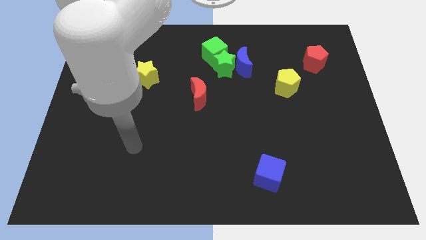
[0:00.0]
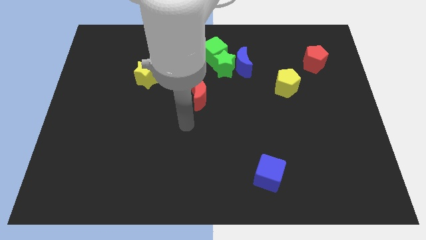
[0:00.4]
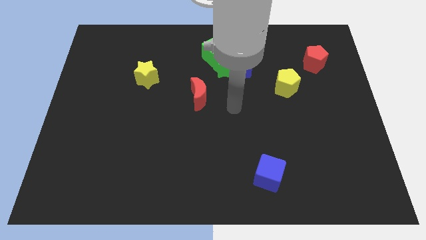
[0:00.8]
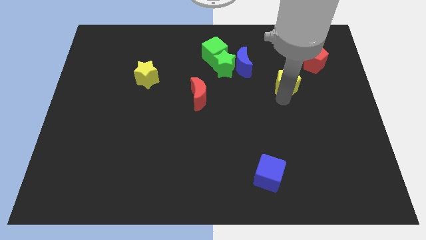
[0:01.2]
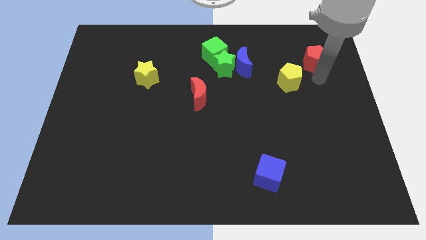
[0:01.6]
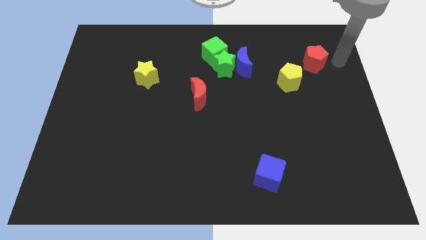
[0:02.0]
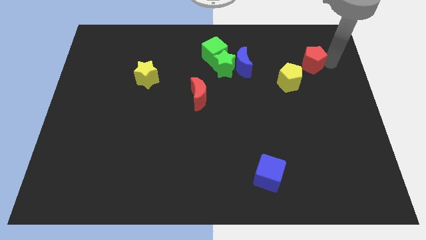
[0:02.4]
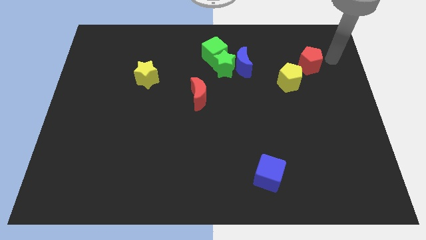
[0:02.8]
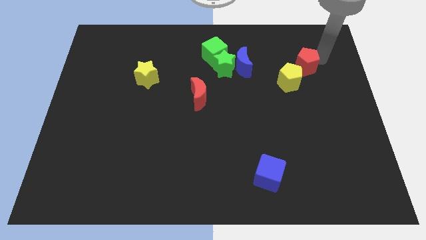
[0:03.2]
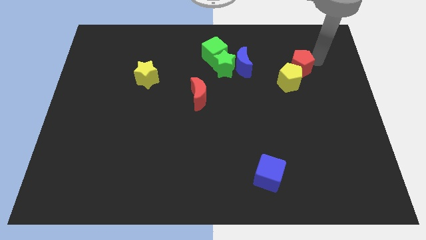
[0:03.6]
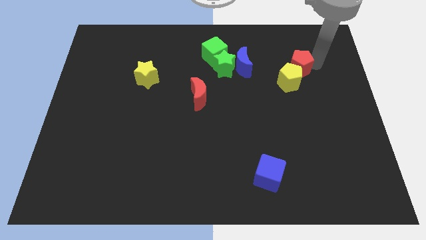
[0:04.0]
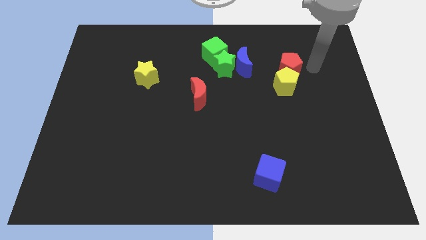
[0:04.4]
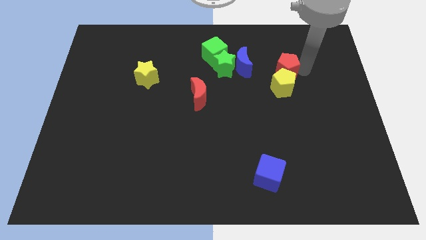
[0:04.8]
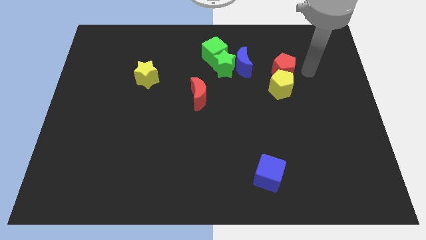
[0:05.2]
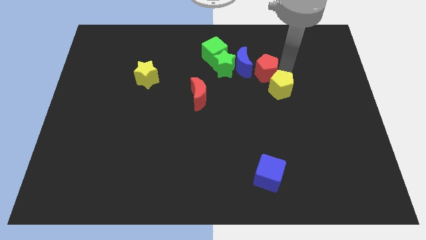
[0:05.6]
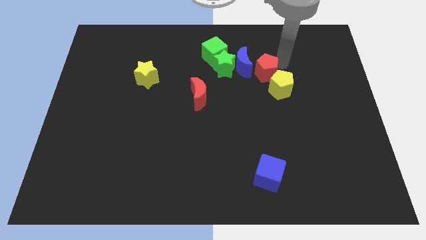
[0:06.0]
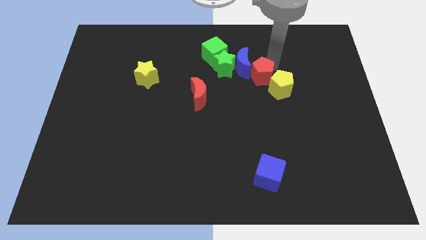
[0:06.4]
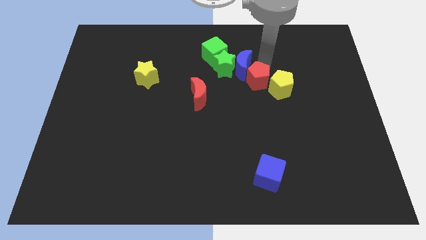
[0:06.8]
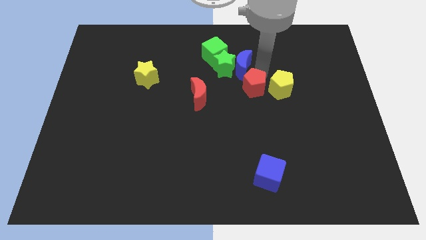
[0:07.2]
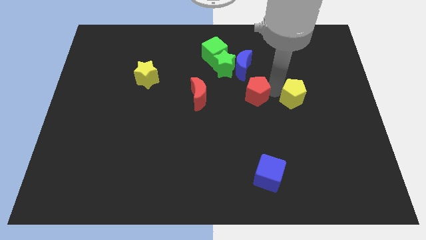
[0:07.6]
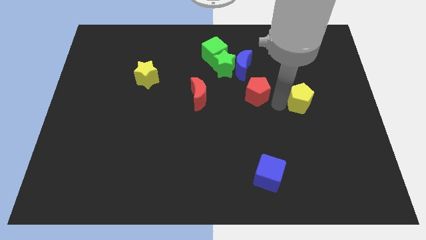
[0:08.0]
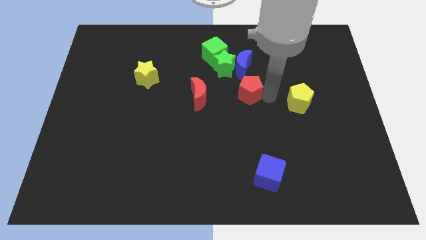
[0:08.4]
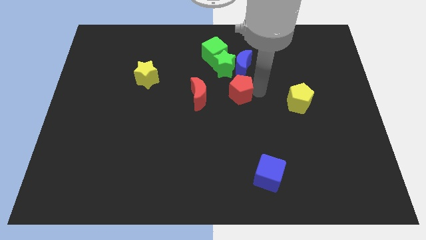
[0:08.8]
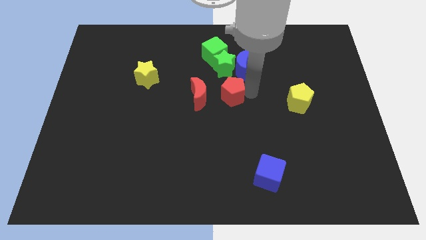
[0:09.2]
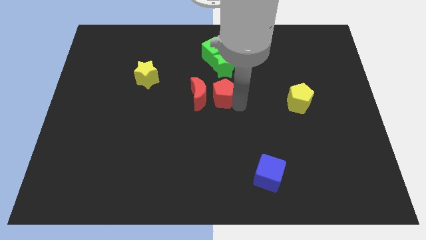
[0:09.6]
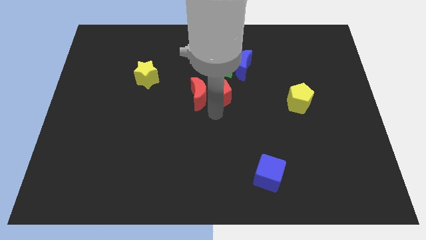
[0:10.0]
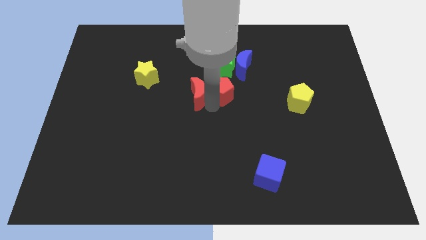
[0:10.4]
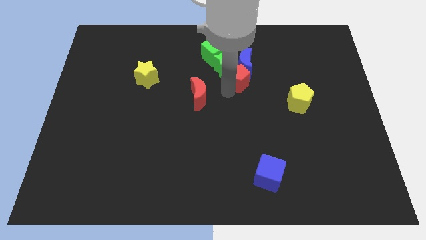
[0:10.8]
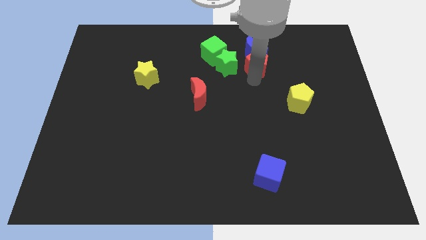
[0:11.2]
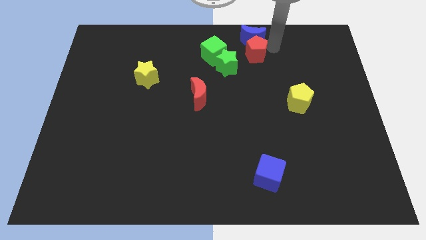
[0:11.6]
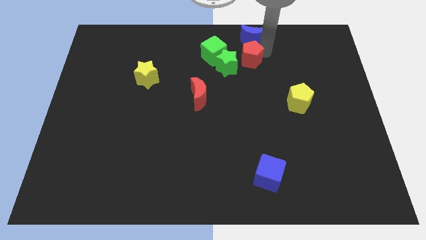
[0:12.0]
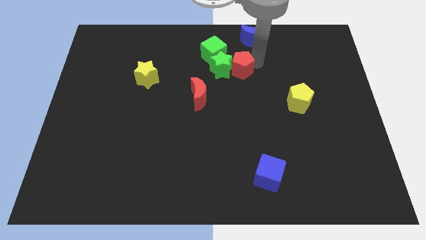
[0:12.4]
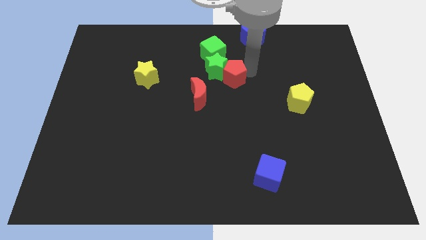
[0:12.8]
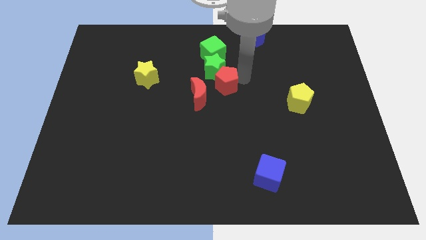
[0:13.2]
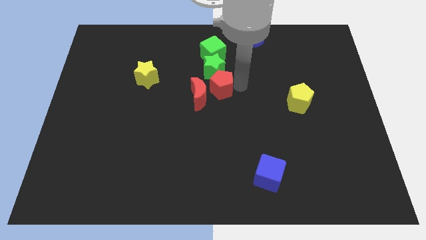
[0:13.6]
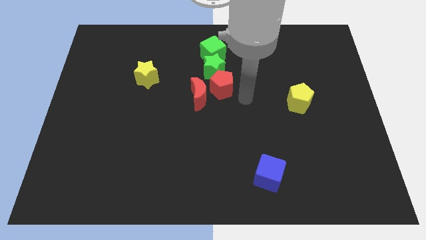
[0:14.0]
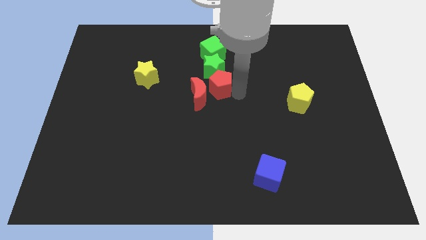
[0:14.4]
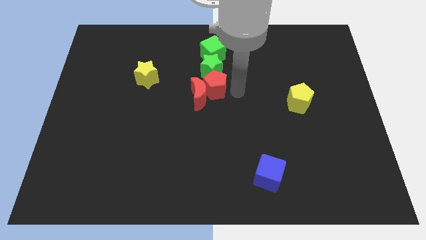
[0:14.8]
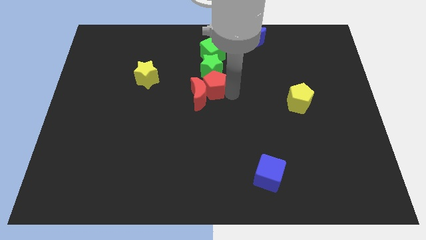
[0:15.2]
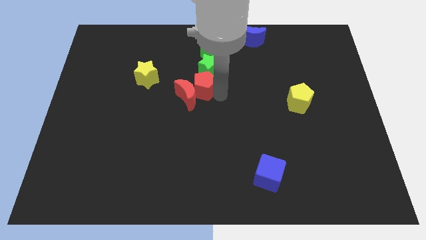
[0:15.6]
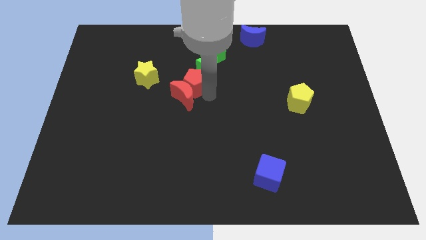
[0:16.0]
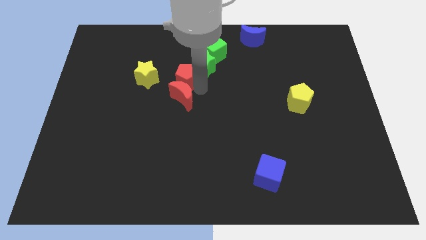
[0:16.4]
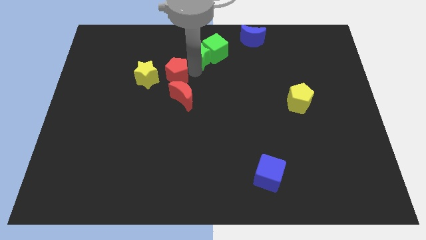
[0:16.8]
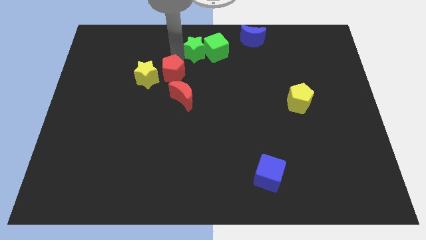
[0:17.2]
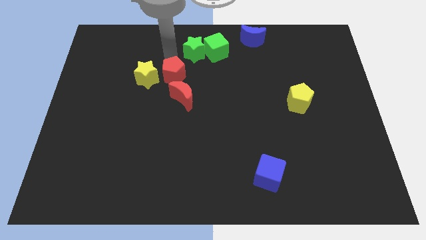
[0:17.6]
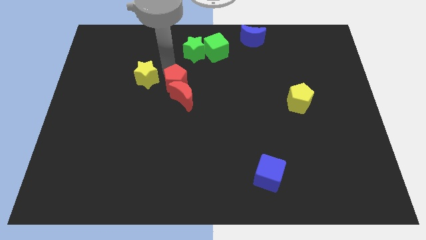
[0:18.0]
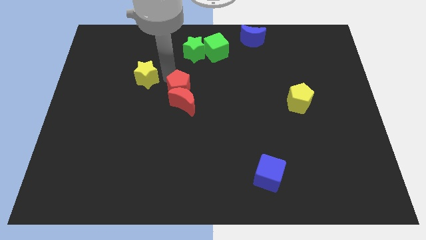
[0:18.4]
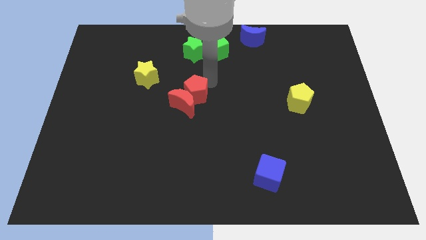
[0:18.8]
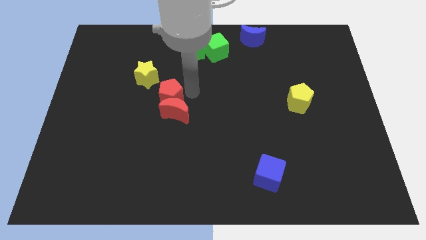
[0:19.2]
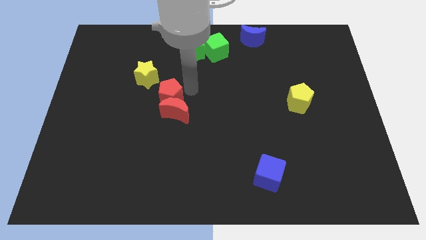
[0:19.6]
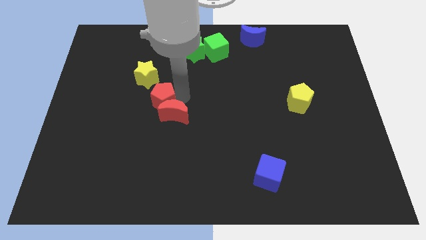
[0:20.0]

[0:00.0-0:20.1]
push the red pentagon to the bottom side of the yellow star

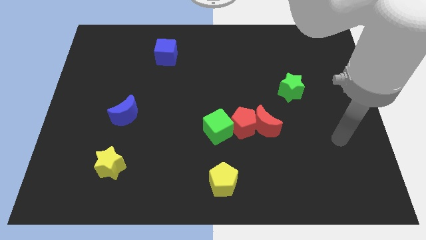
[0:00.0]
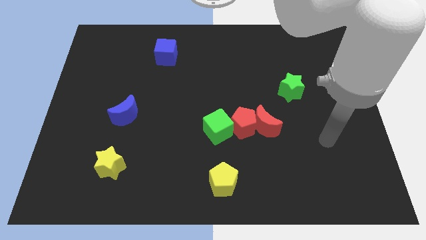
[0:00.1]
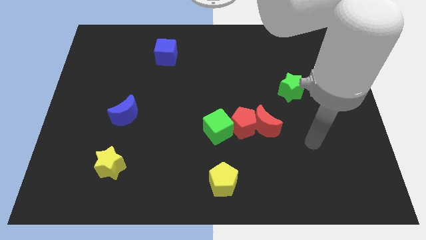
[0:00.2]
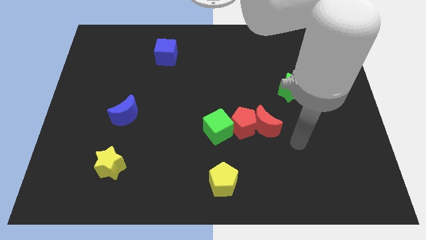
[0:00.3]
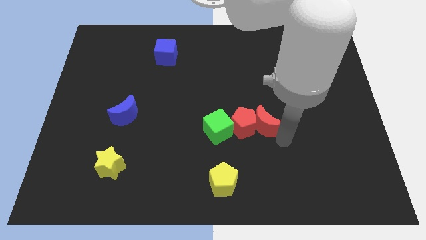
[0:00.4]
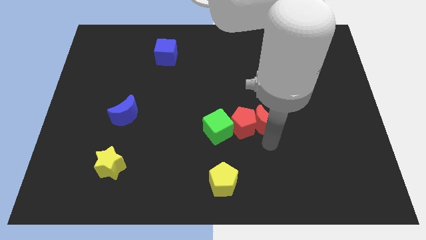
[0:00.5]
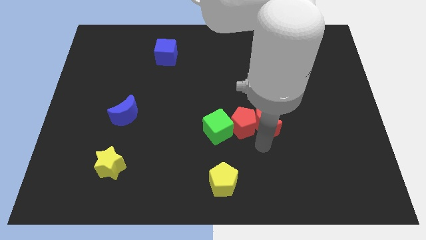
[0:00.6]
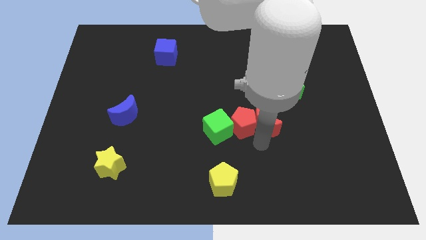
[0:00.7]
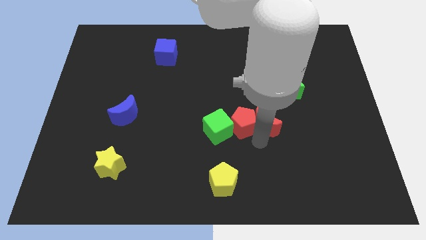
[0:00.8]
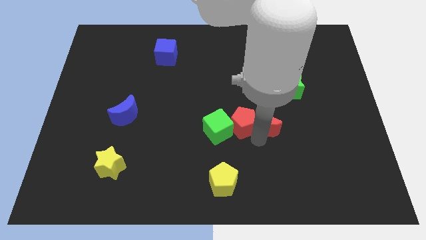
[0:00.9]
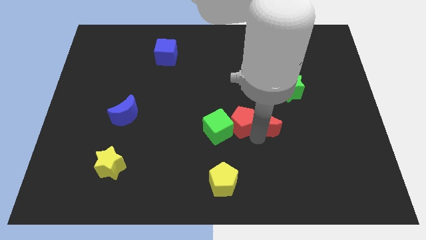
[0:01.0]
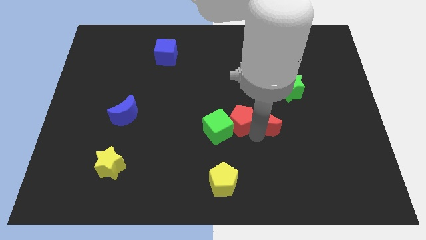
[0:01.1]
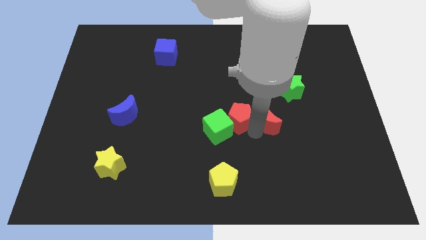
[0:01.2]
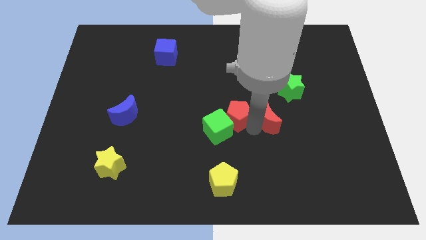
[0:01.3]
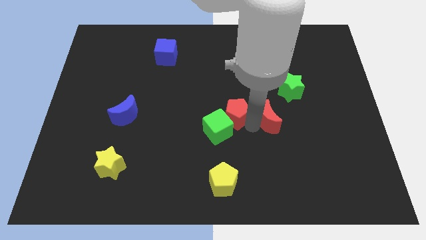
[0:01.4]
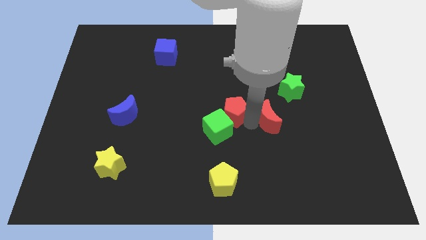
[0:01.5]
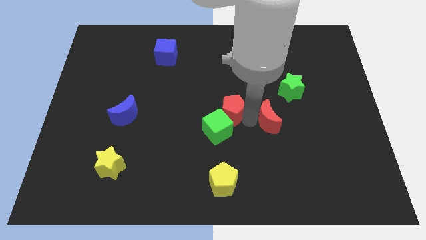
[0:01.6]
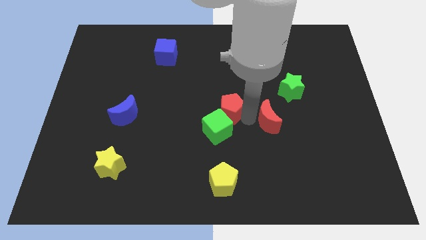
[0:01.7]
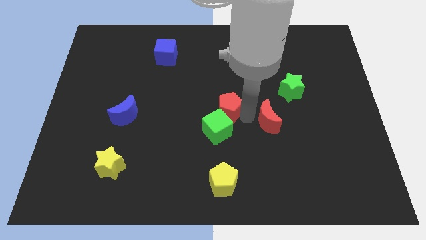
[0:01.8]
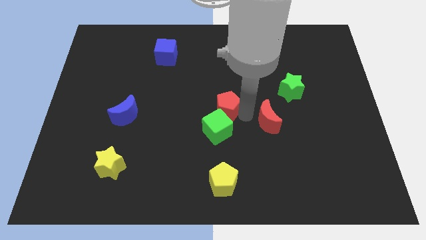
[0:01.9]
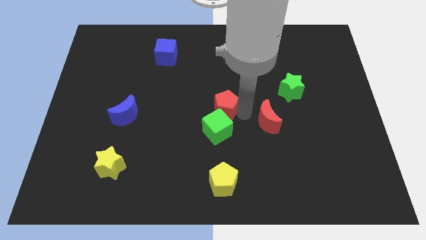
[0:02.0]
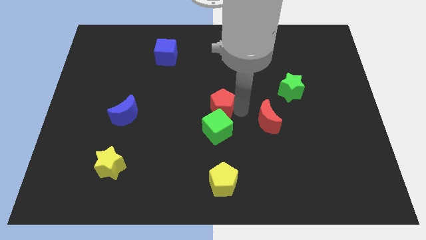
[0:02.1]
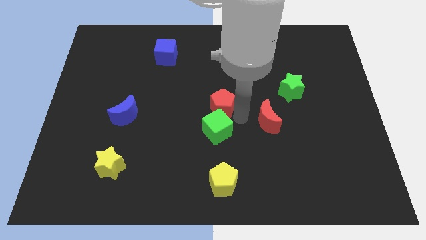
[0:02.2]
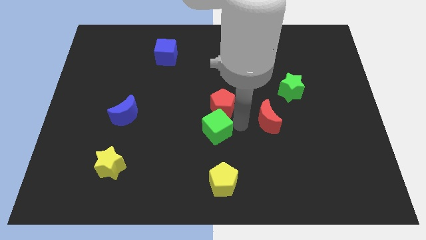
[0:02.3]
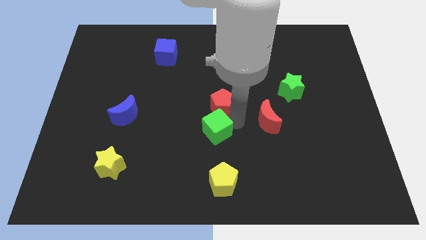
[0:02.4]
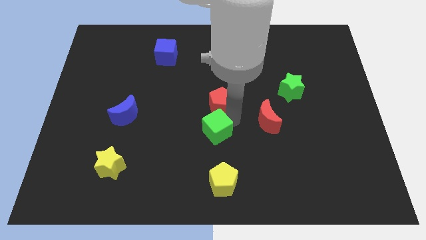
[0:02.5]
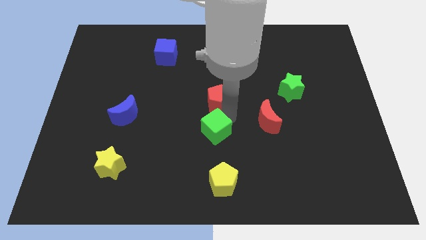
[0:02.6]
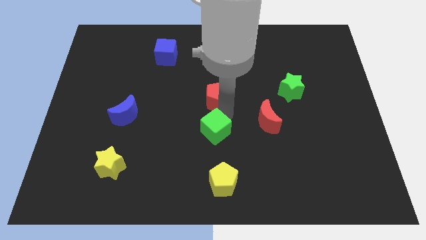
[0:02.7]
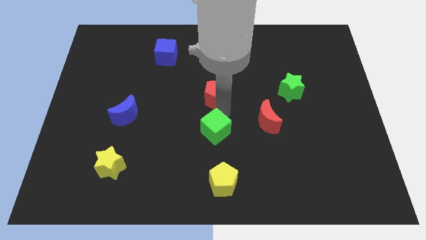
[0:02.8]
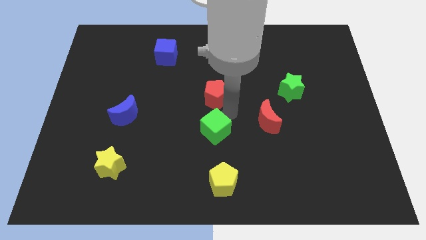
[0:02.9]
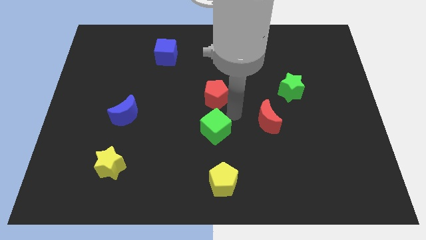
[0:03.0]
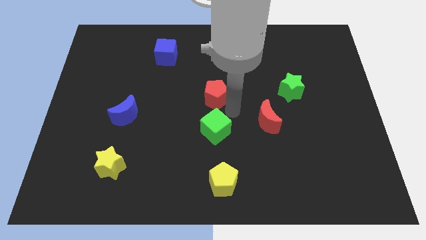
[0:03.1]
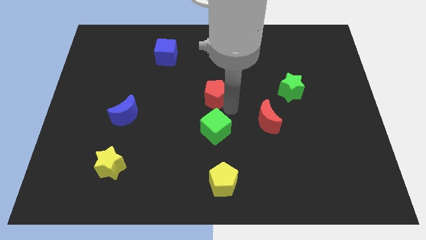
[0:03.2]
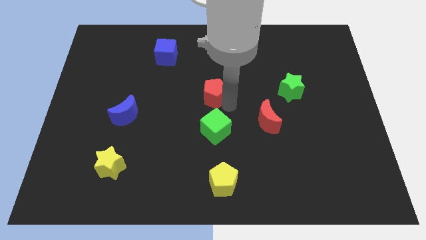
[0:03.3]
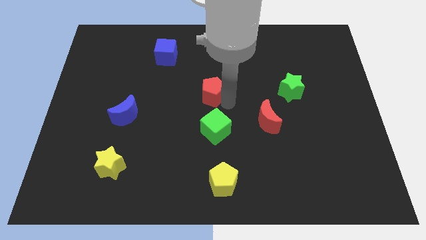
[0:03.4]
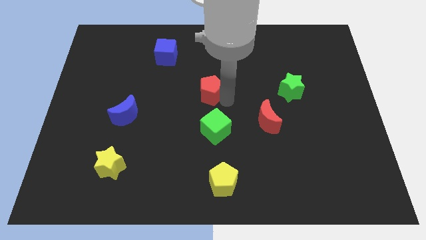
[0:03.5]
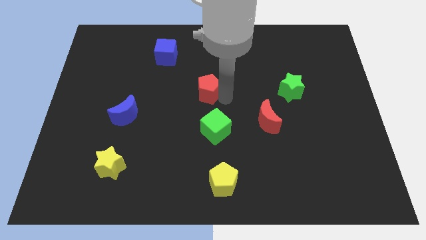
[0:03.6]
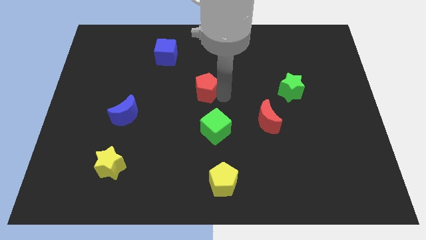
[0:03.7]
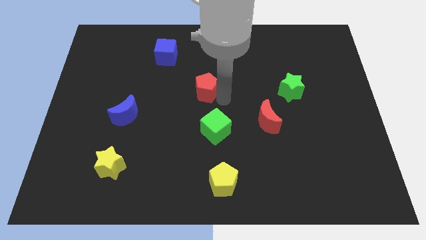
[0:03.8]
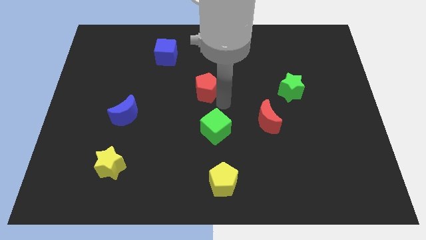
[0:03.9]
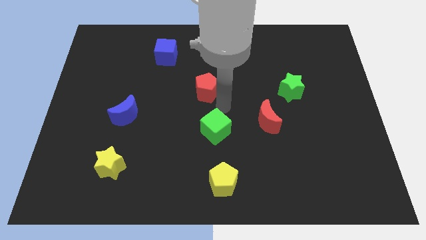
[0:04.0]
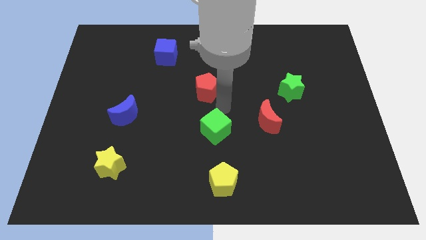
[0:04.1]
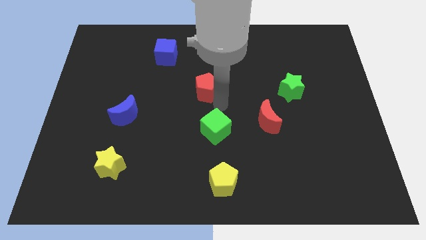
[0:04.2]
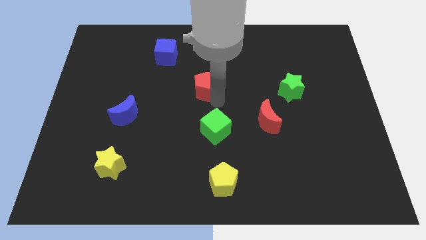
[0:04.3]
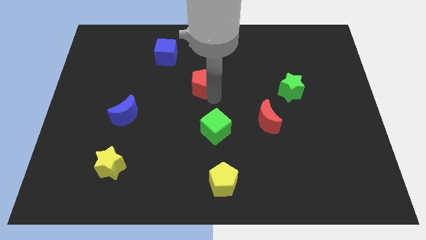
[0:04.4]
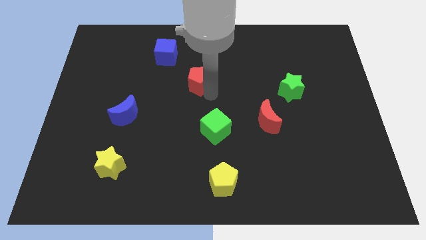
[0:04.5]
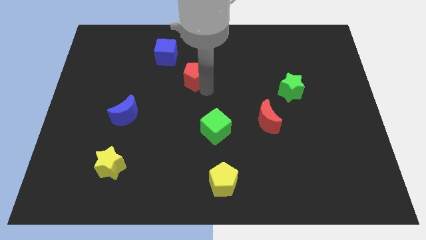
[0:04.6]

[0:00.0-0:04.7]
push the red pentagon to the bottom right side of the blue cube
